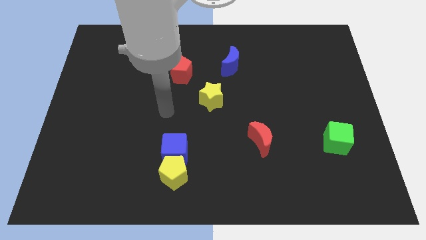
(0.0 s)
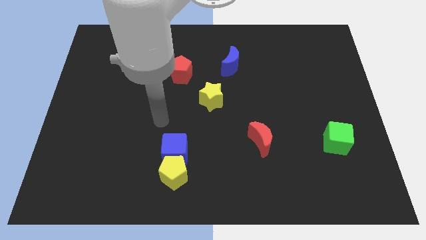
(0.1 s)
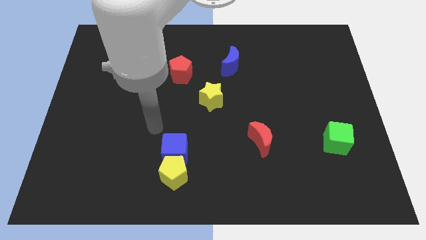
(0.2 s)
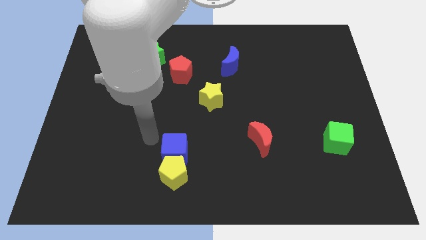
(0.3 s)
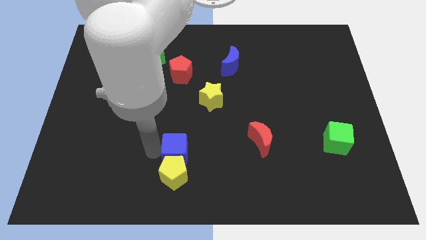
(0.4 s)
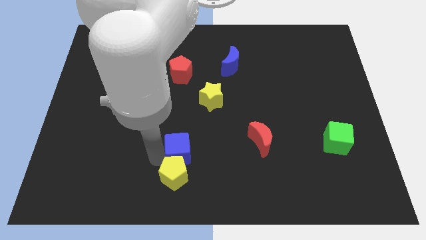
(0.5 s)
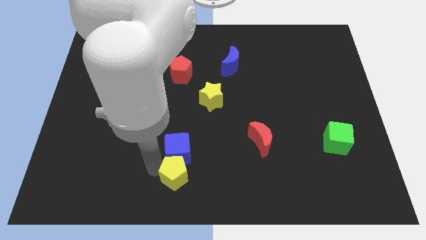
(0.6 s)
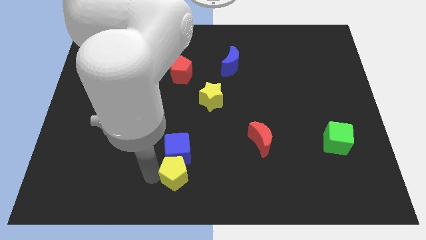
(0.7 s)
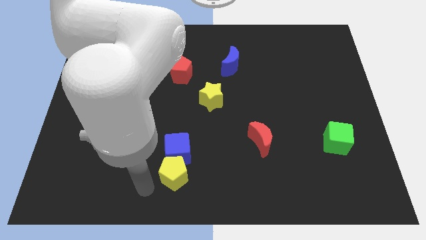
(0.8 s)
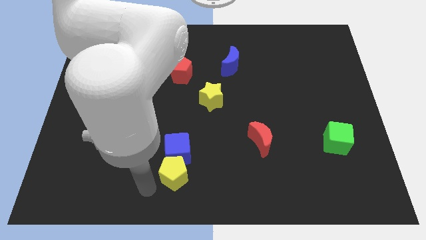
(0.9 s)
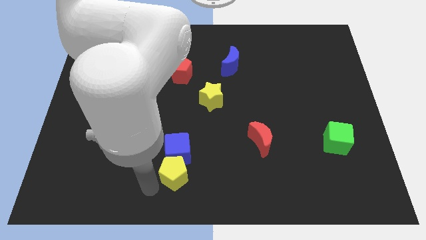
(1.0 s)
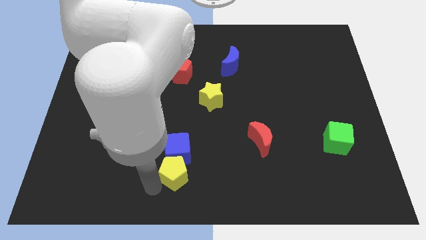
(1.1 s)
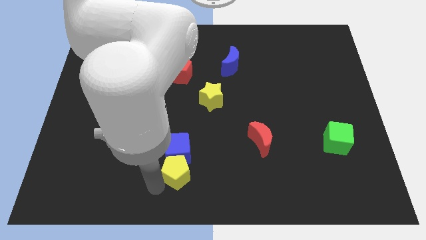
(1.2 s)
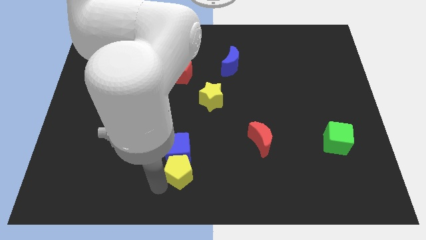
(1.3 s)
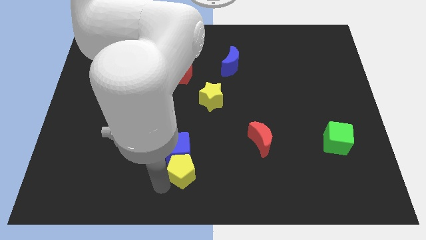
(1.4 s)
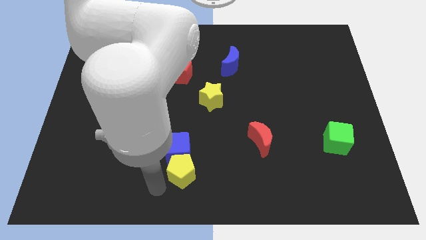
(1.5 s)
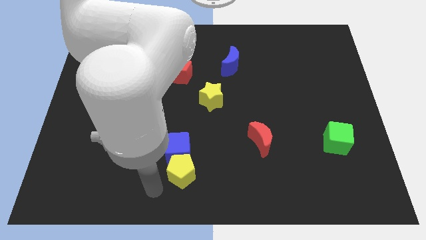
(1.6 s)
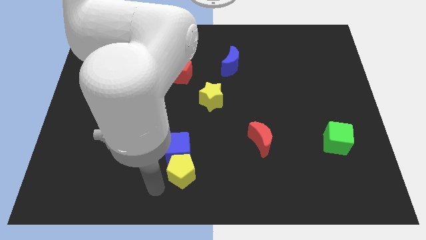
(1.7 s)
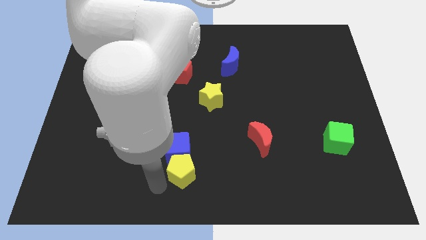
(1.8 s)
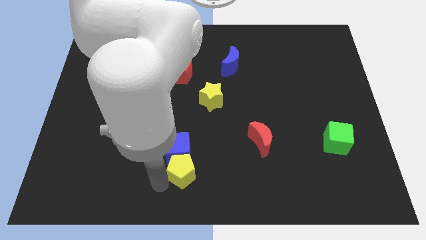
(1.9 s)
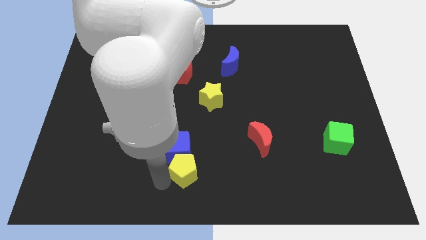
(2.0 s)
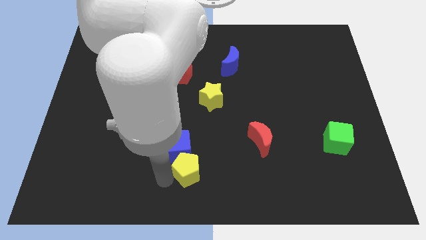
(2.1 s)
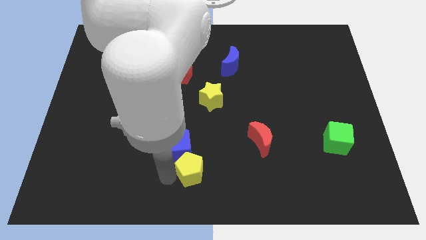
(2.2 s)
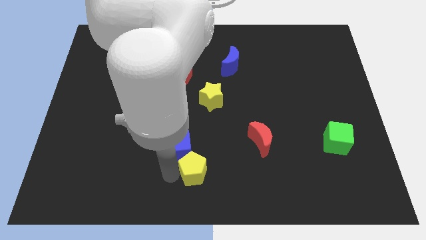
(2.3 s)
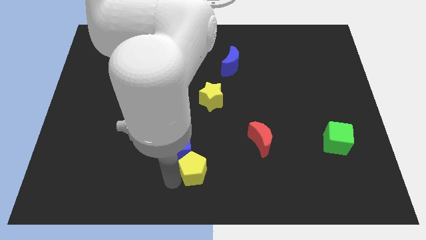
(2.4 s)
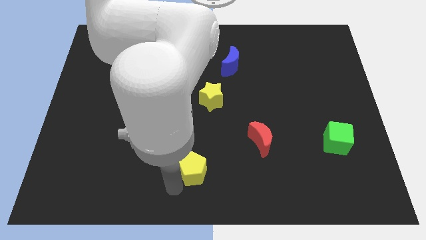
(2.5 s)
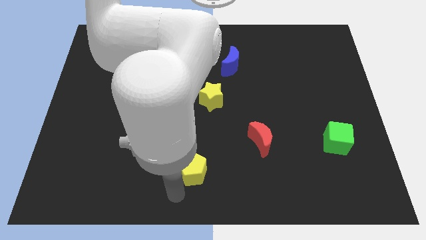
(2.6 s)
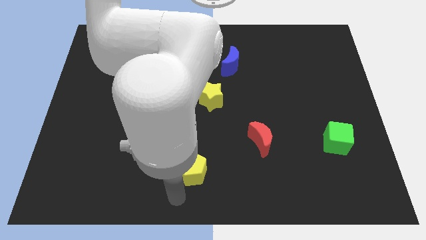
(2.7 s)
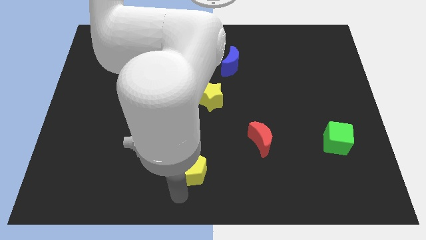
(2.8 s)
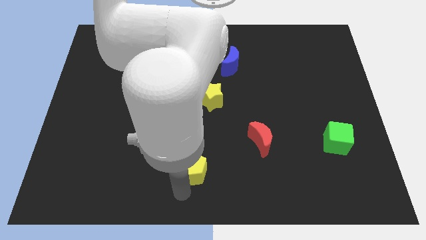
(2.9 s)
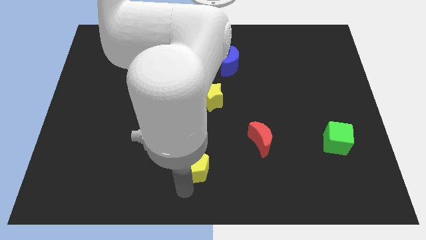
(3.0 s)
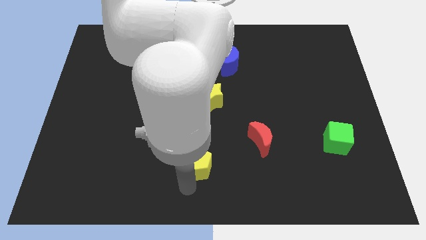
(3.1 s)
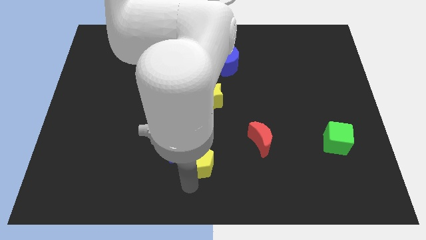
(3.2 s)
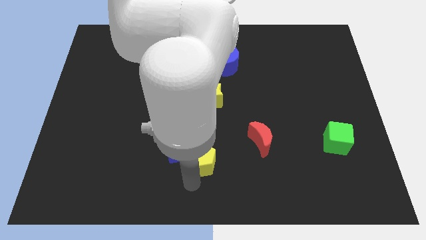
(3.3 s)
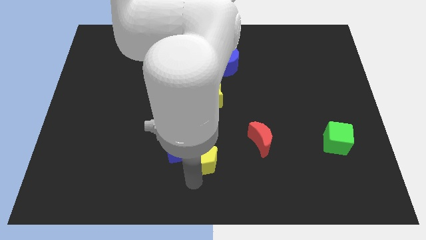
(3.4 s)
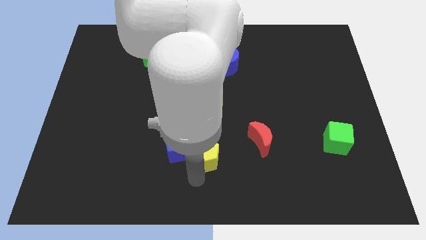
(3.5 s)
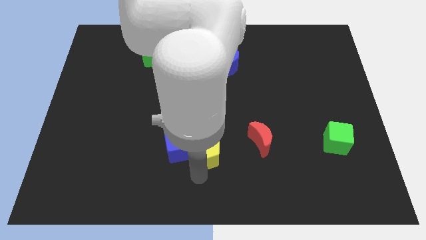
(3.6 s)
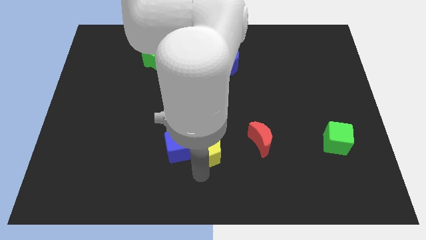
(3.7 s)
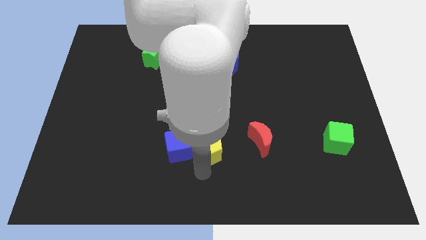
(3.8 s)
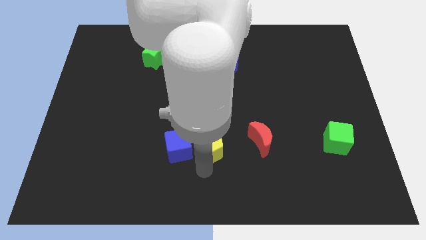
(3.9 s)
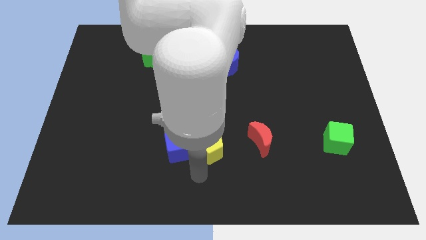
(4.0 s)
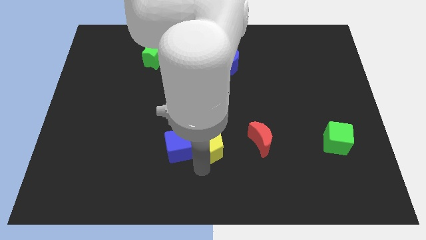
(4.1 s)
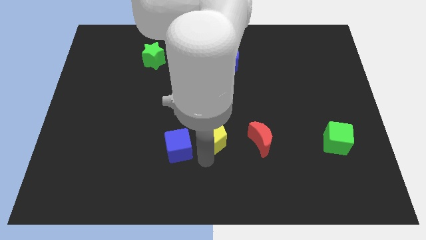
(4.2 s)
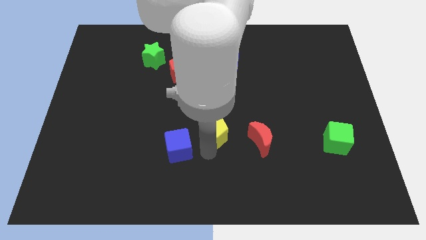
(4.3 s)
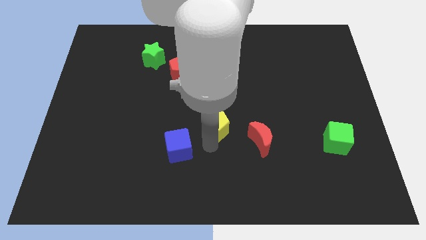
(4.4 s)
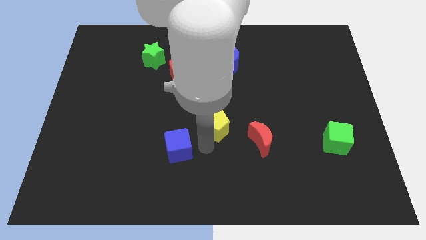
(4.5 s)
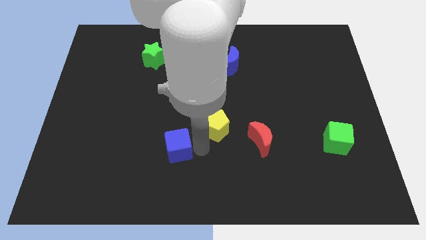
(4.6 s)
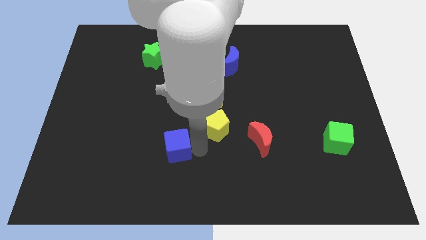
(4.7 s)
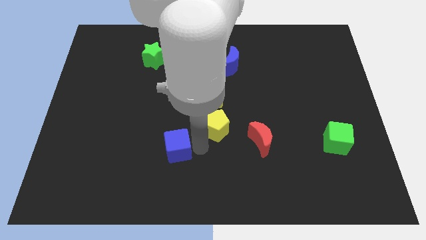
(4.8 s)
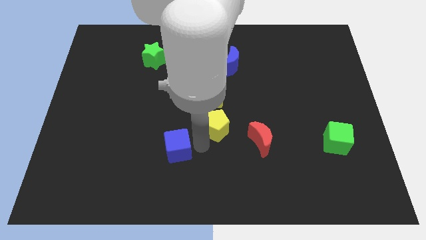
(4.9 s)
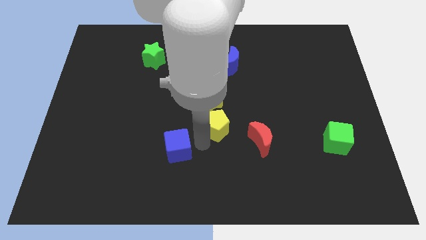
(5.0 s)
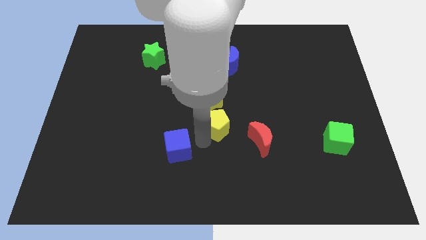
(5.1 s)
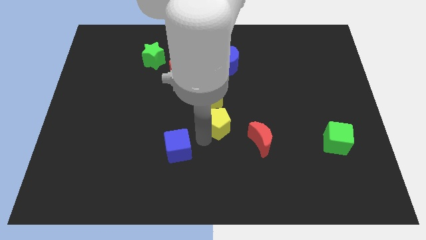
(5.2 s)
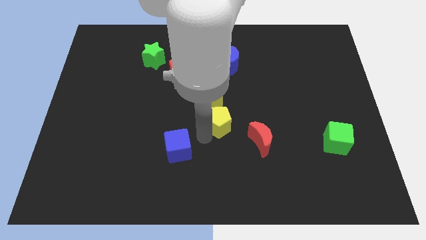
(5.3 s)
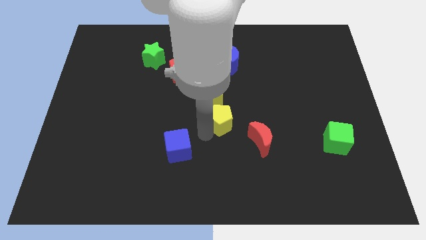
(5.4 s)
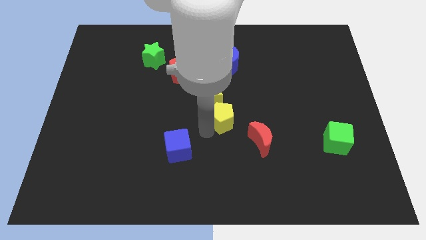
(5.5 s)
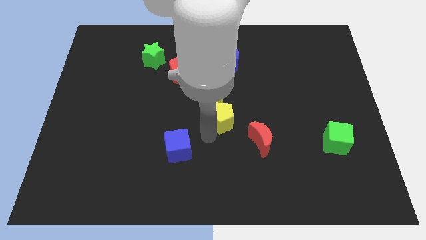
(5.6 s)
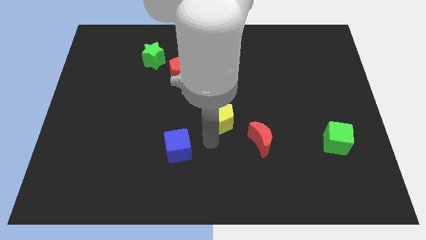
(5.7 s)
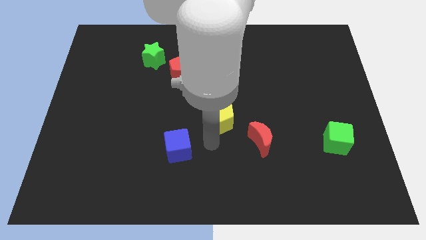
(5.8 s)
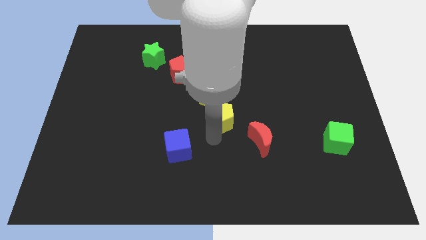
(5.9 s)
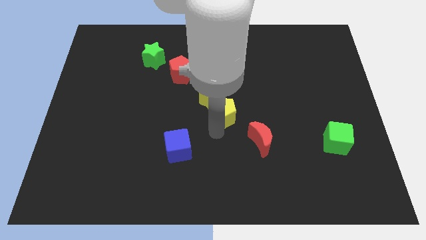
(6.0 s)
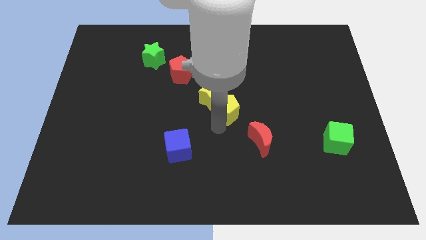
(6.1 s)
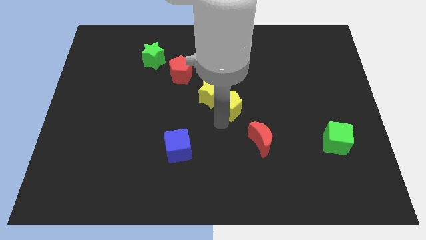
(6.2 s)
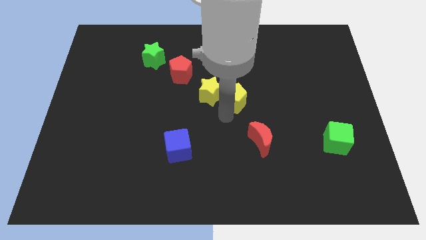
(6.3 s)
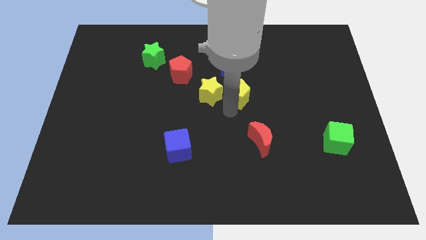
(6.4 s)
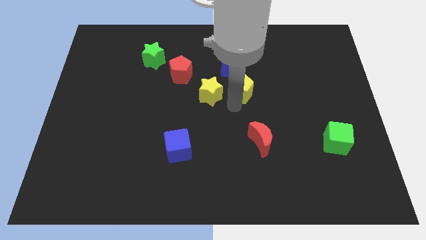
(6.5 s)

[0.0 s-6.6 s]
put the yellow pentagon to the top right side of the yellow star

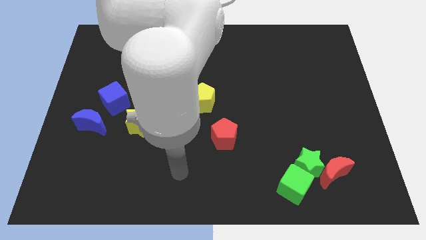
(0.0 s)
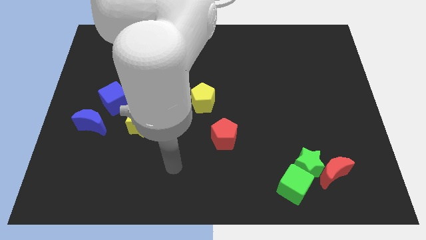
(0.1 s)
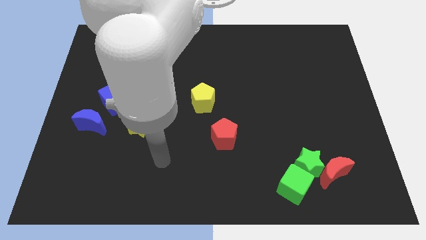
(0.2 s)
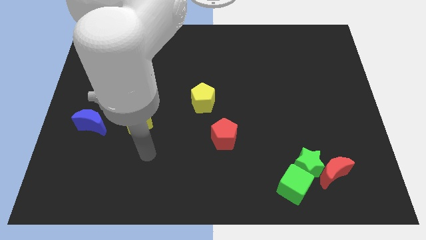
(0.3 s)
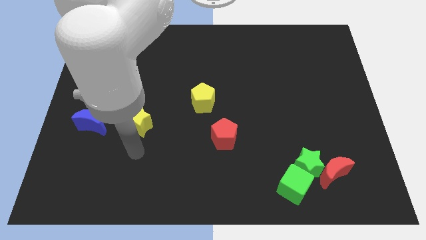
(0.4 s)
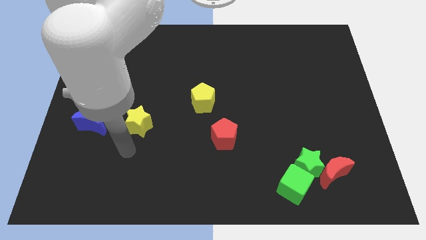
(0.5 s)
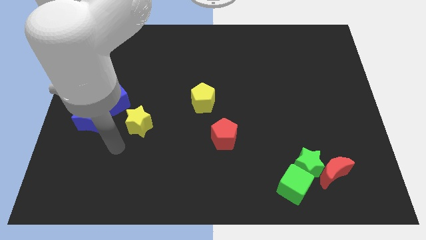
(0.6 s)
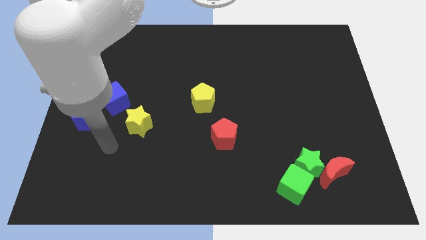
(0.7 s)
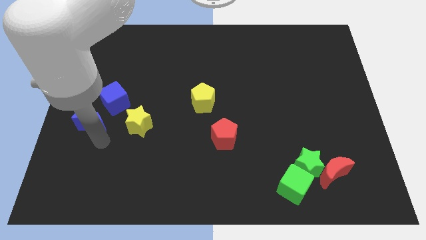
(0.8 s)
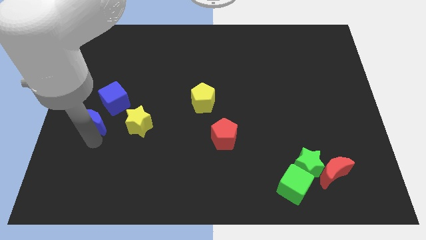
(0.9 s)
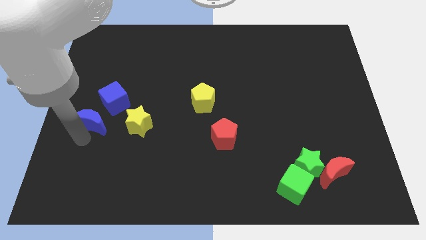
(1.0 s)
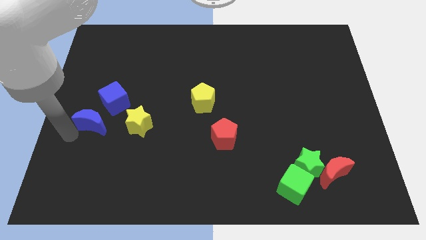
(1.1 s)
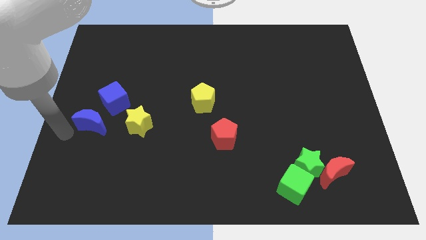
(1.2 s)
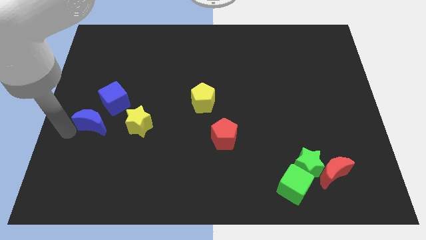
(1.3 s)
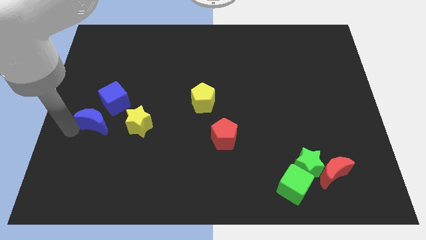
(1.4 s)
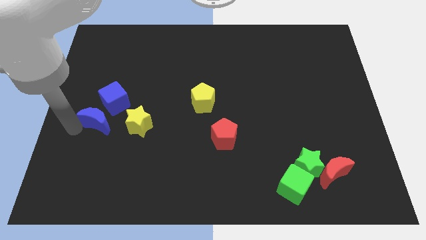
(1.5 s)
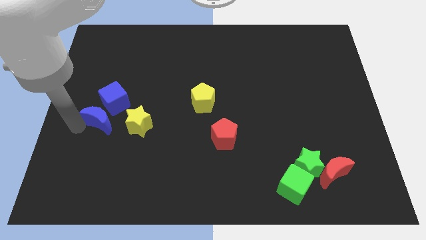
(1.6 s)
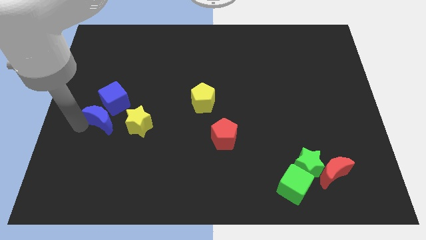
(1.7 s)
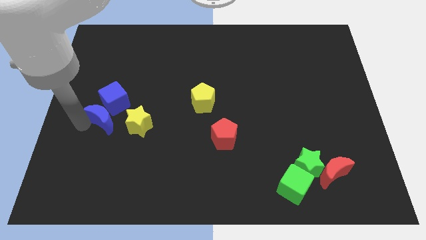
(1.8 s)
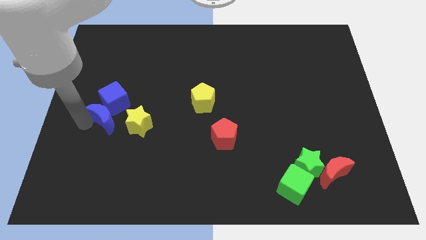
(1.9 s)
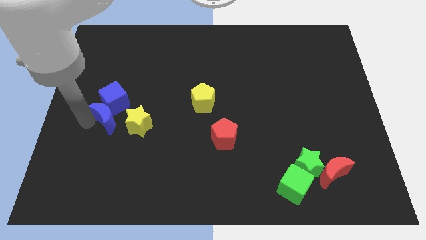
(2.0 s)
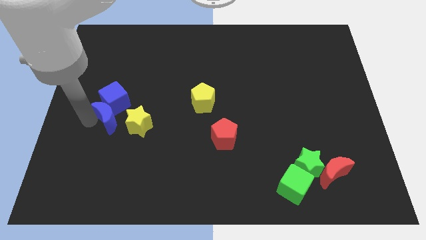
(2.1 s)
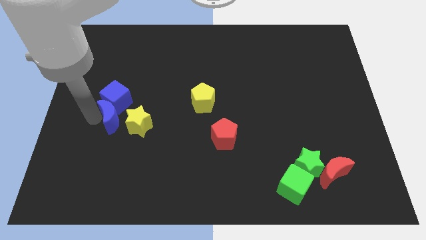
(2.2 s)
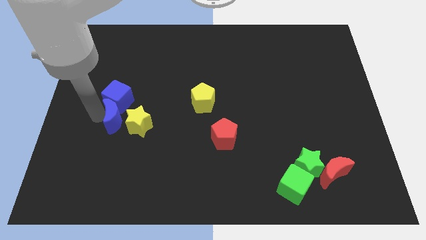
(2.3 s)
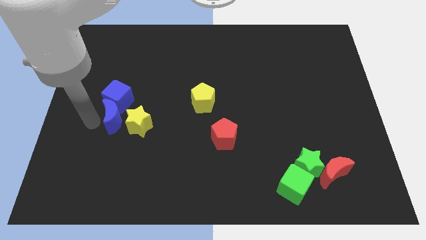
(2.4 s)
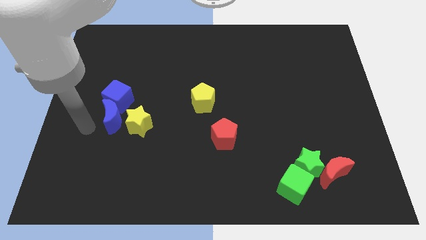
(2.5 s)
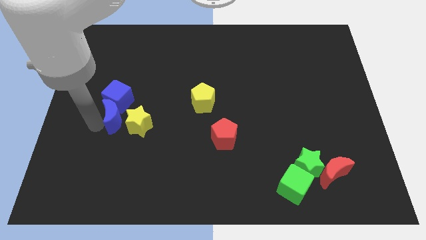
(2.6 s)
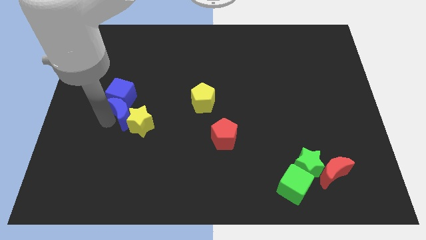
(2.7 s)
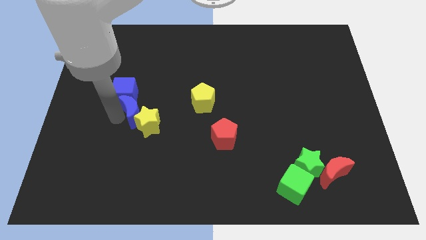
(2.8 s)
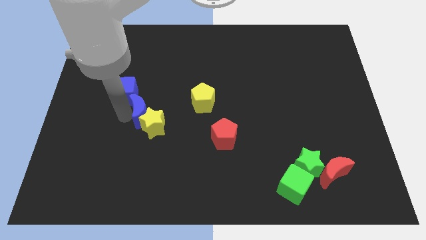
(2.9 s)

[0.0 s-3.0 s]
put the blue moon to the left side of the yellow pentagon
